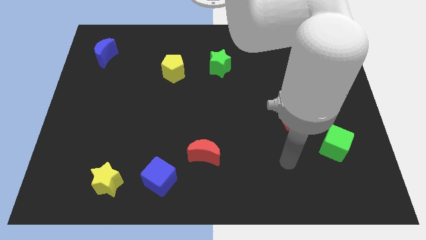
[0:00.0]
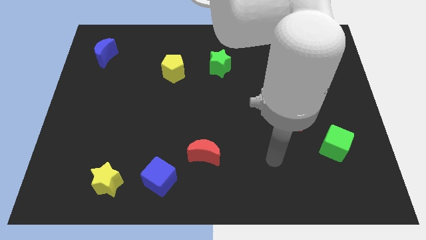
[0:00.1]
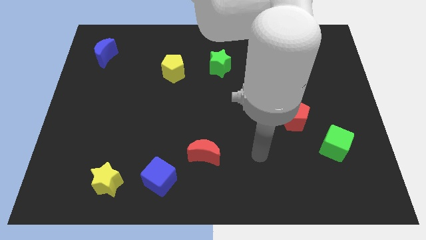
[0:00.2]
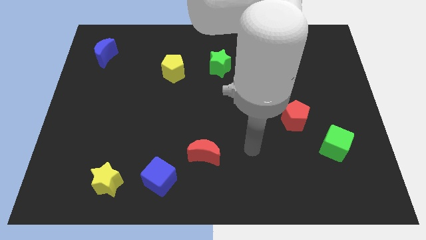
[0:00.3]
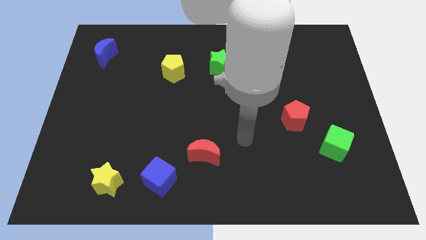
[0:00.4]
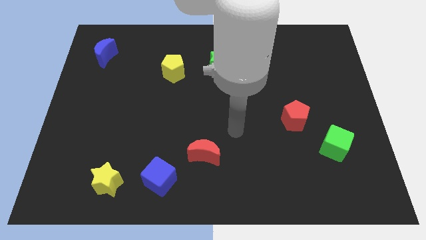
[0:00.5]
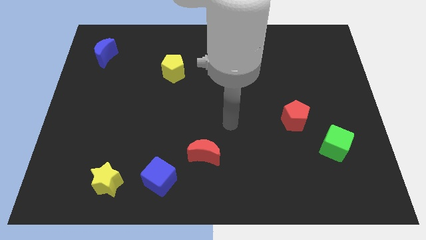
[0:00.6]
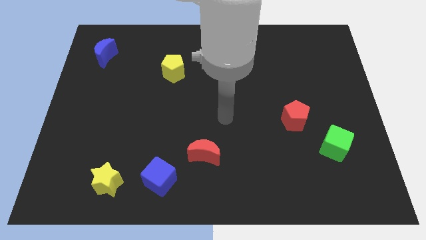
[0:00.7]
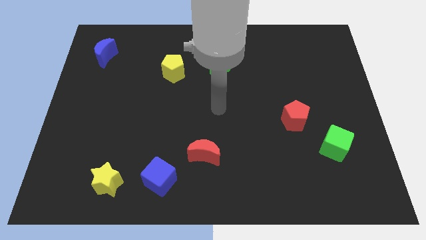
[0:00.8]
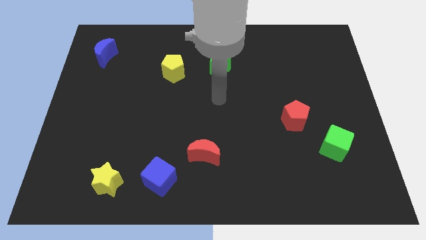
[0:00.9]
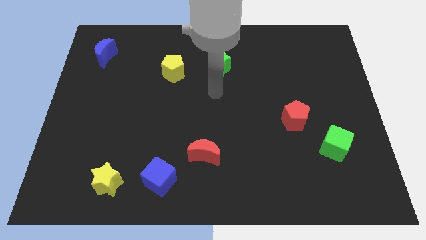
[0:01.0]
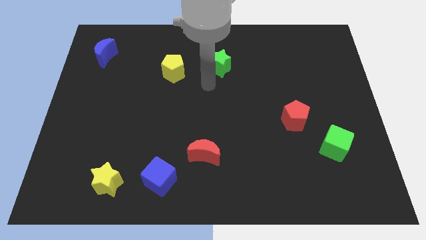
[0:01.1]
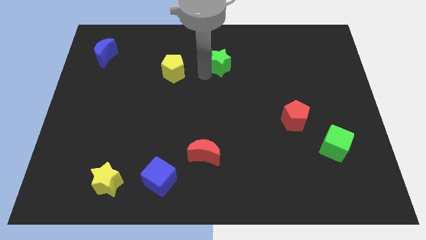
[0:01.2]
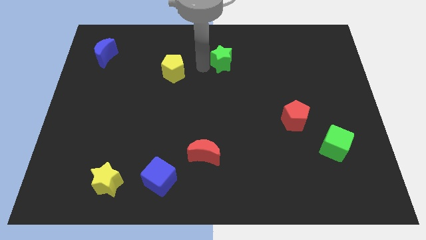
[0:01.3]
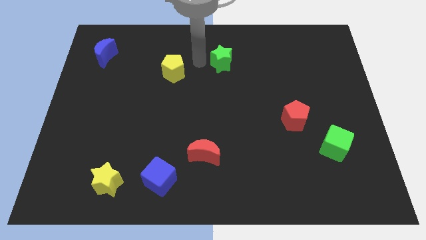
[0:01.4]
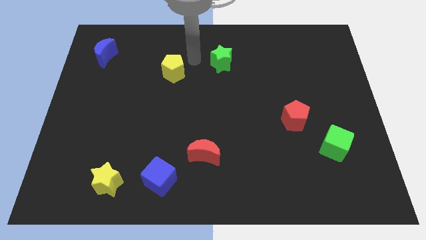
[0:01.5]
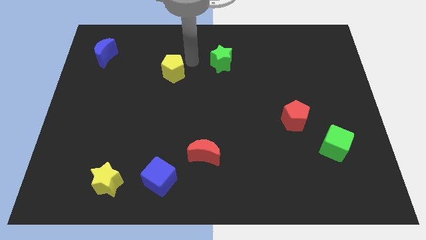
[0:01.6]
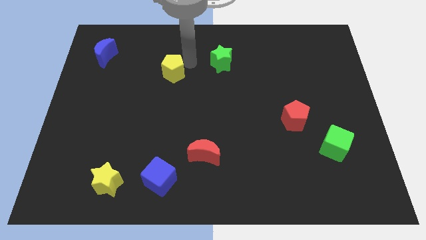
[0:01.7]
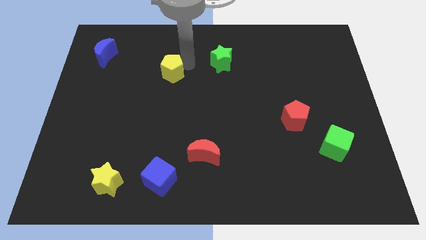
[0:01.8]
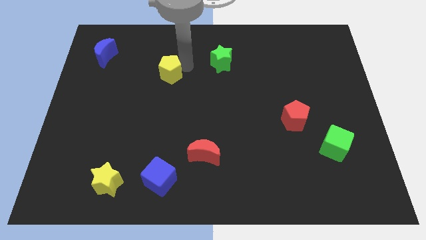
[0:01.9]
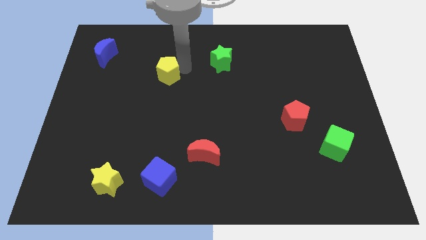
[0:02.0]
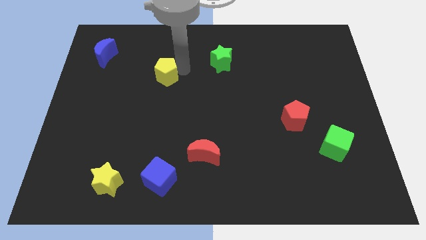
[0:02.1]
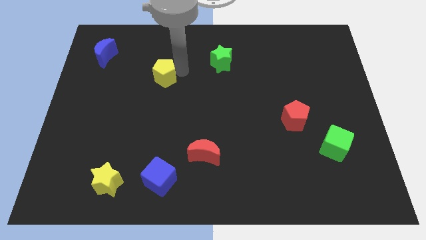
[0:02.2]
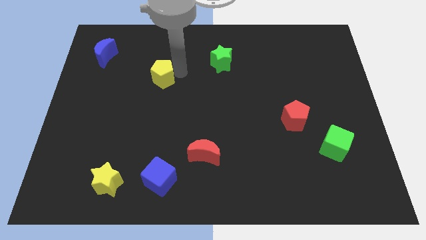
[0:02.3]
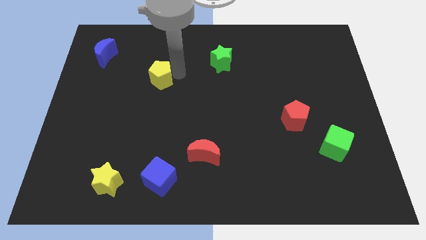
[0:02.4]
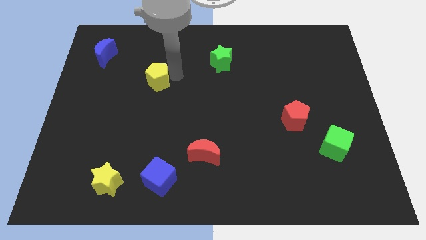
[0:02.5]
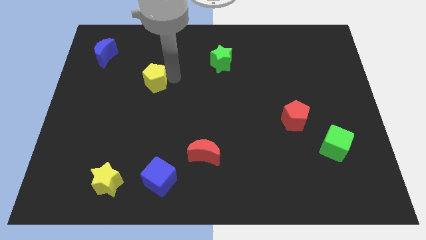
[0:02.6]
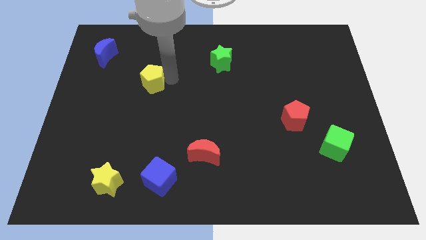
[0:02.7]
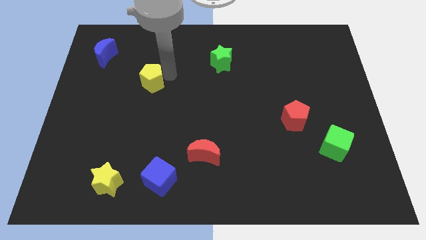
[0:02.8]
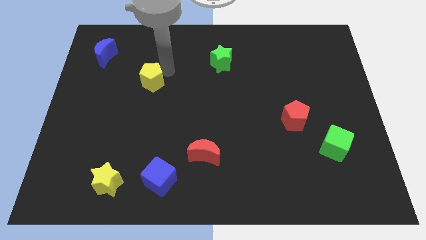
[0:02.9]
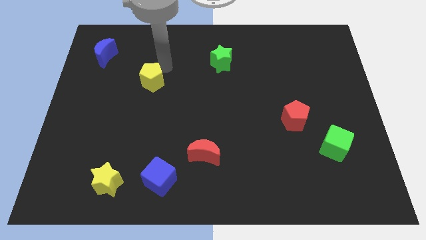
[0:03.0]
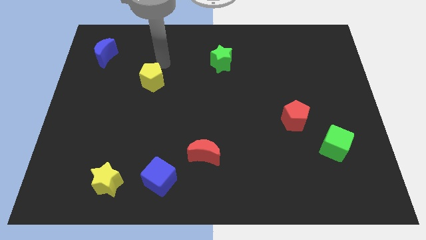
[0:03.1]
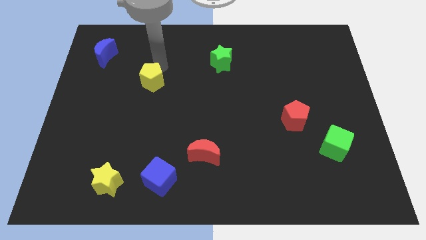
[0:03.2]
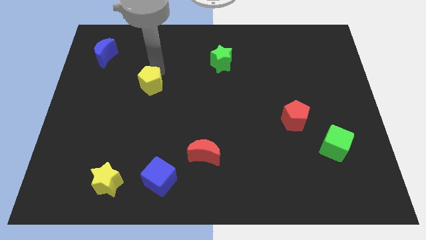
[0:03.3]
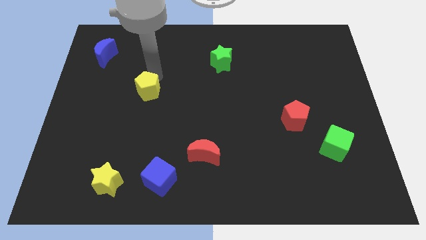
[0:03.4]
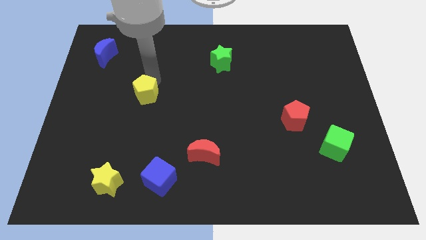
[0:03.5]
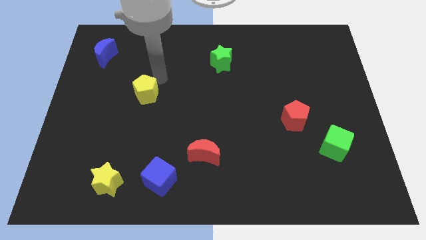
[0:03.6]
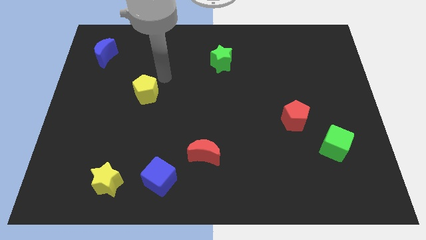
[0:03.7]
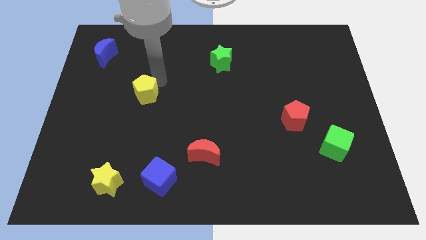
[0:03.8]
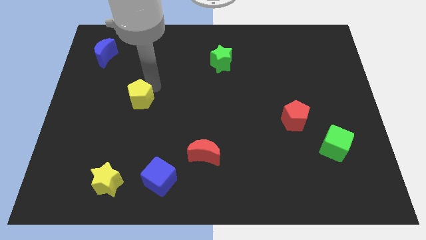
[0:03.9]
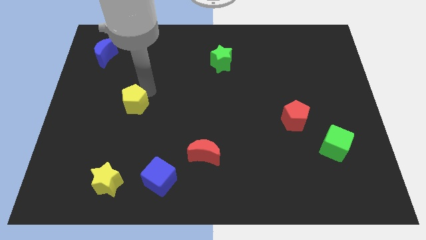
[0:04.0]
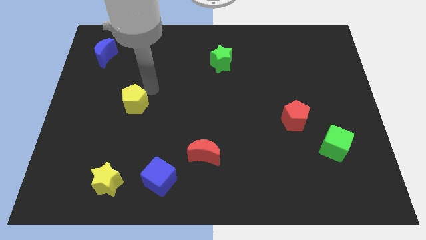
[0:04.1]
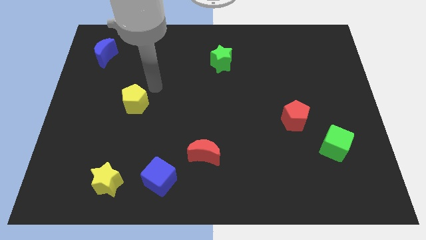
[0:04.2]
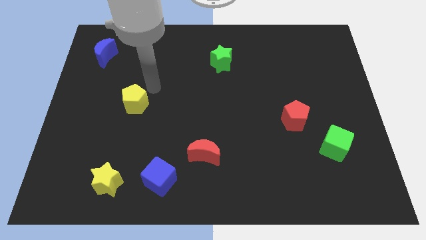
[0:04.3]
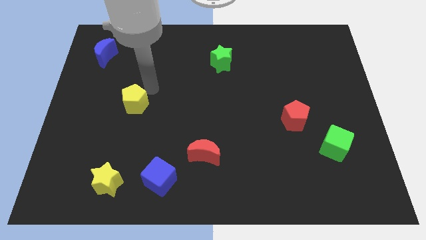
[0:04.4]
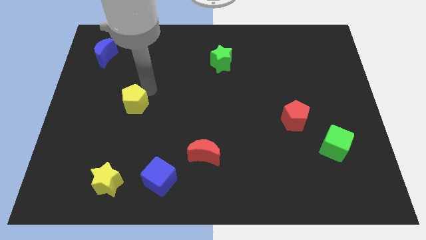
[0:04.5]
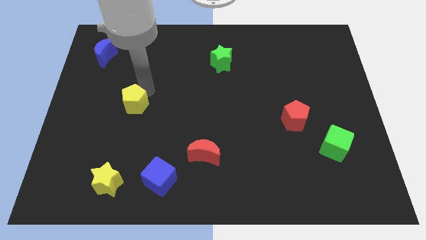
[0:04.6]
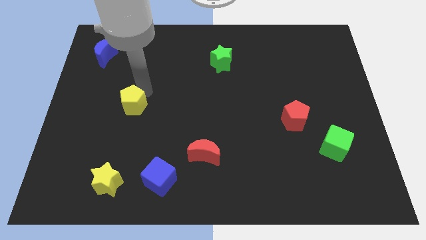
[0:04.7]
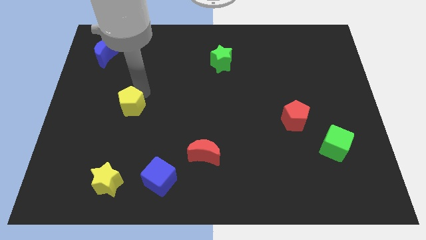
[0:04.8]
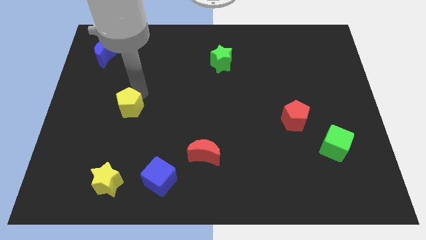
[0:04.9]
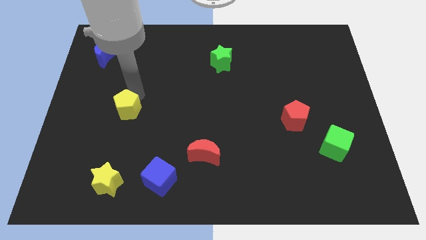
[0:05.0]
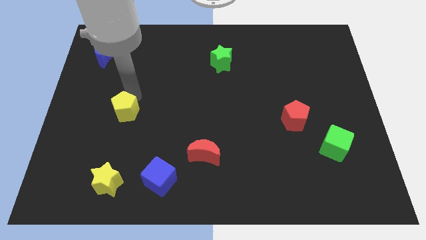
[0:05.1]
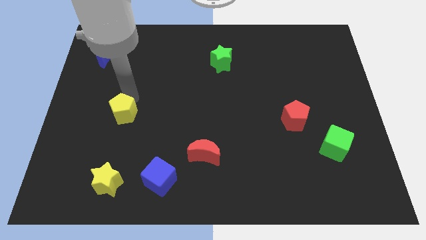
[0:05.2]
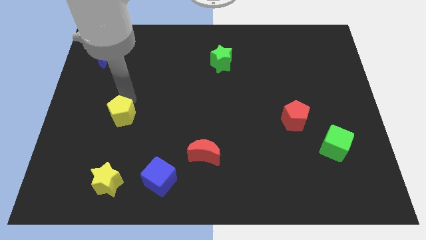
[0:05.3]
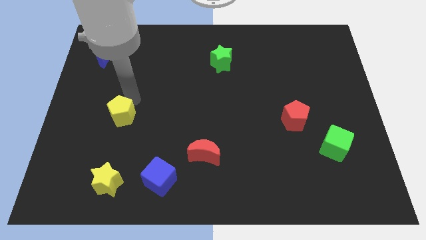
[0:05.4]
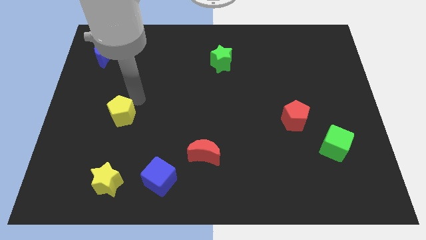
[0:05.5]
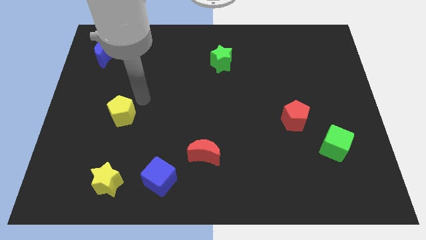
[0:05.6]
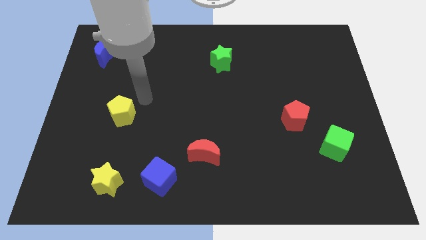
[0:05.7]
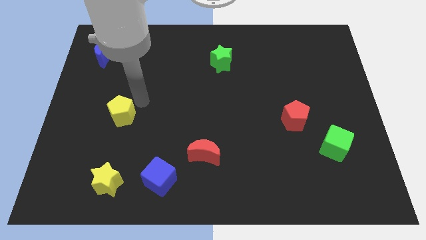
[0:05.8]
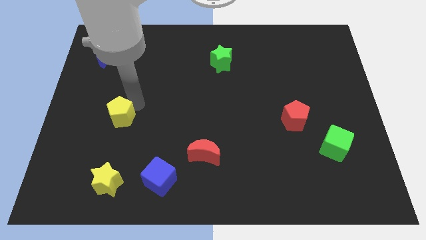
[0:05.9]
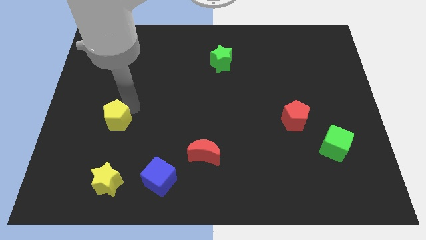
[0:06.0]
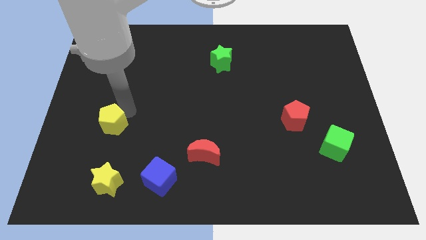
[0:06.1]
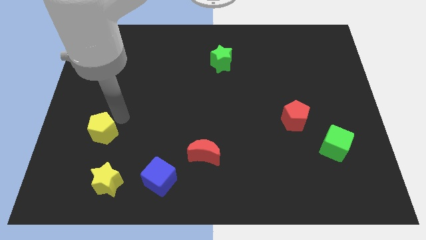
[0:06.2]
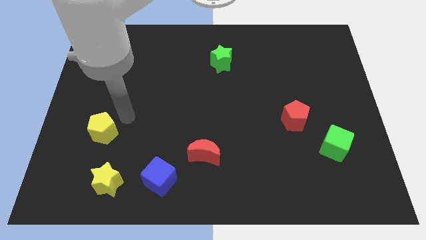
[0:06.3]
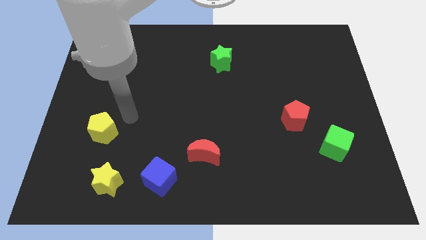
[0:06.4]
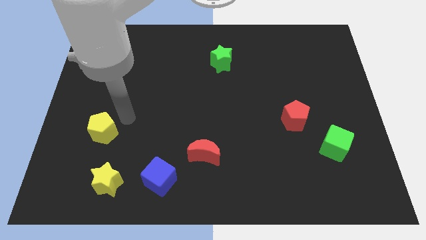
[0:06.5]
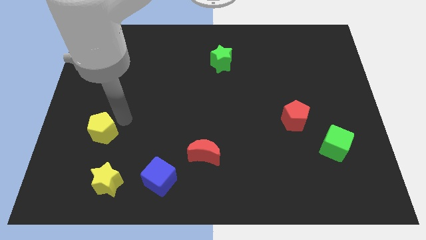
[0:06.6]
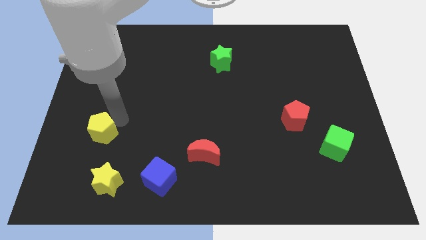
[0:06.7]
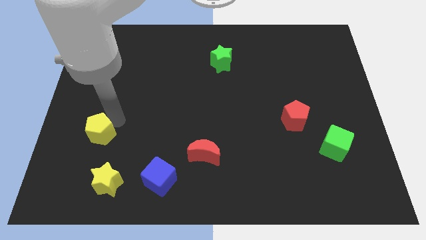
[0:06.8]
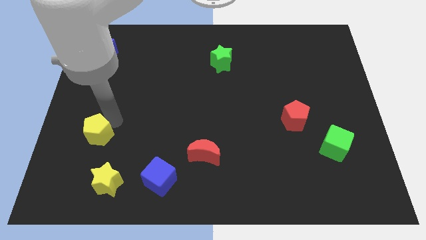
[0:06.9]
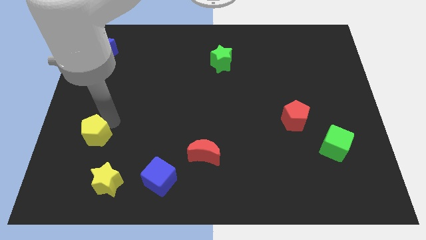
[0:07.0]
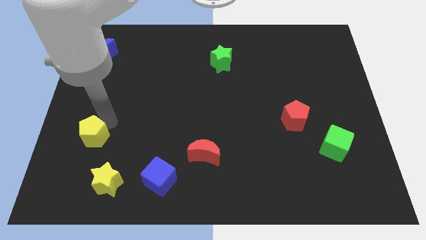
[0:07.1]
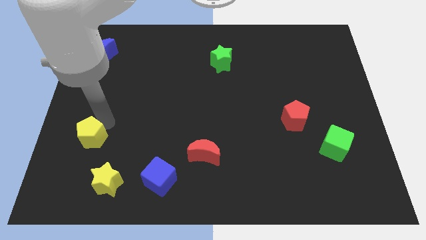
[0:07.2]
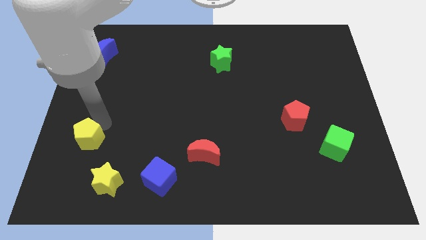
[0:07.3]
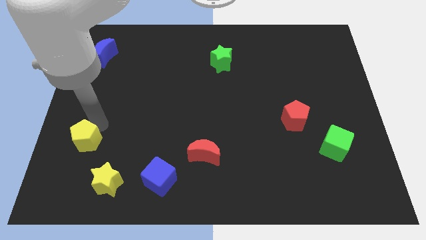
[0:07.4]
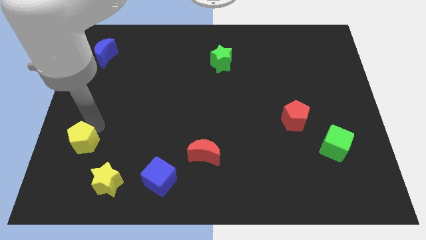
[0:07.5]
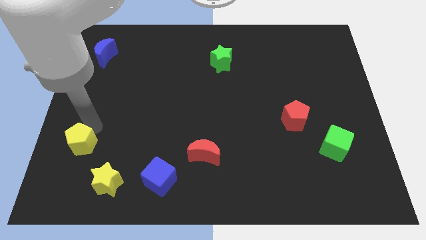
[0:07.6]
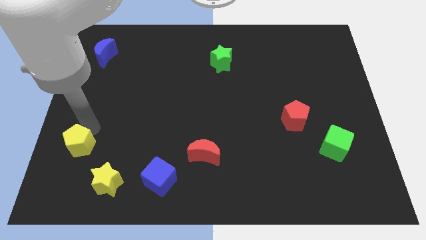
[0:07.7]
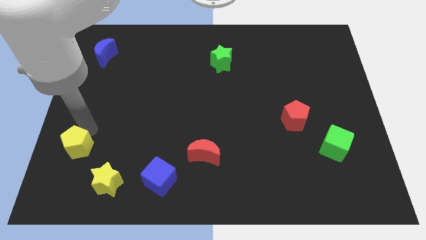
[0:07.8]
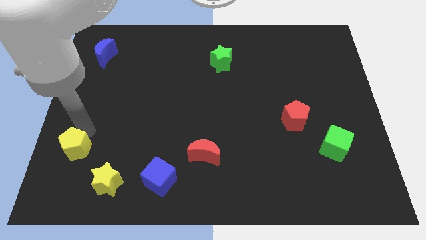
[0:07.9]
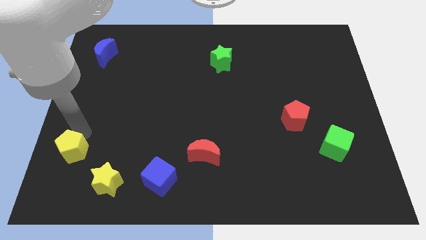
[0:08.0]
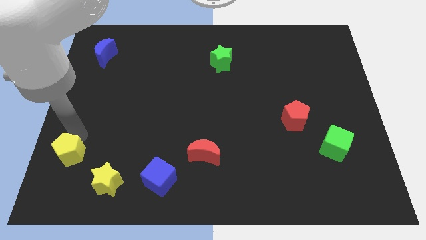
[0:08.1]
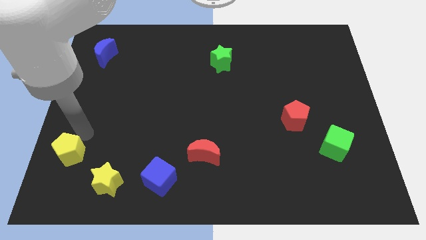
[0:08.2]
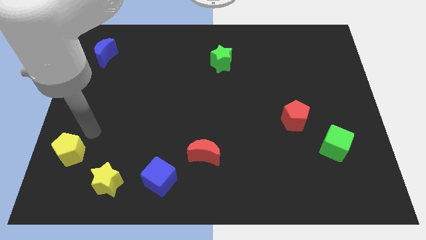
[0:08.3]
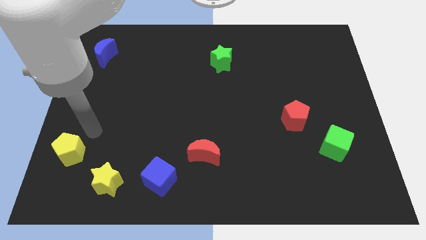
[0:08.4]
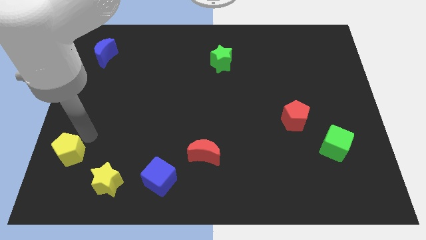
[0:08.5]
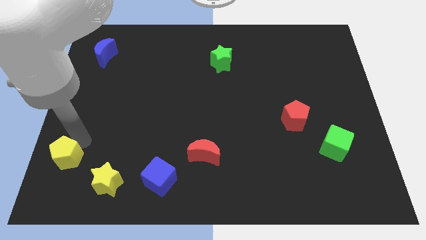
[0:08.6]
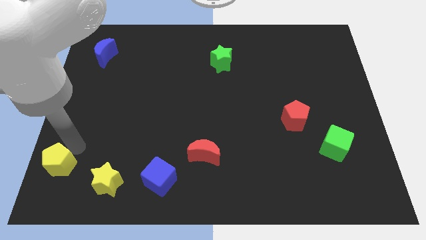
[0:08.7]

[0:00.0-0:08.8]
move the yellow pentagon to the bottom left of the board
